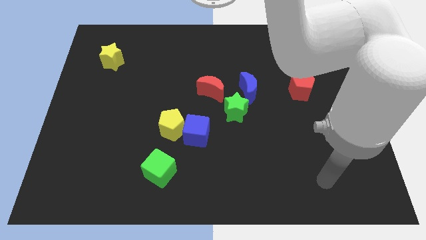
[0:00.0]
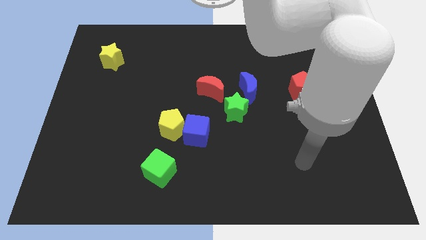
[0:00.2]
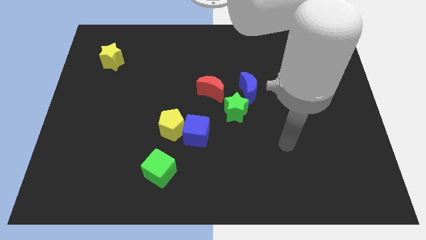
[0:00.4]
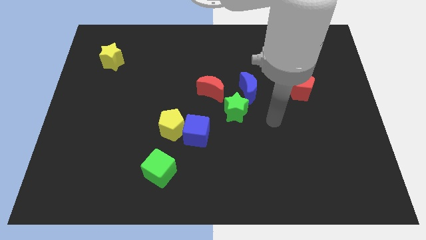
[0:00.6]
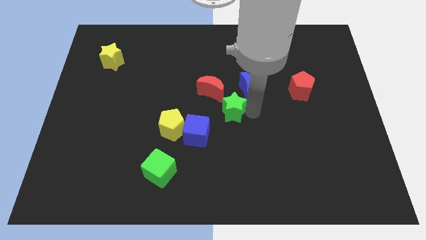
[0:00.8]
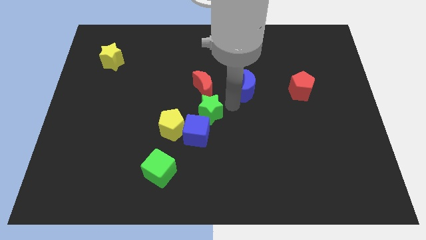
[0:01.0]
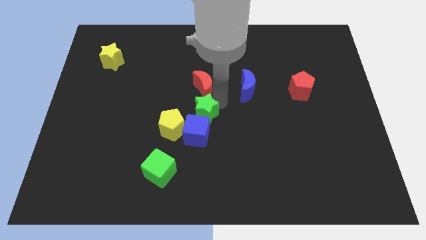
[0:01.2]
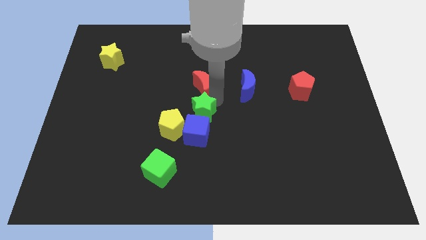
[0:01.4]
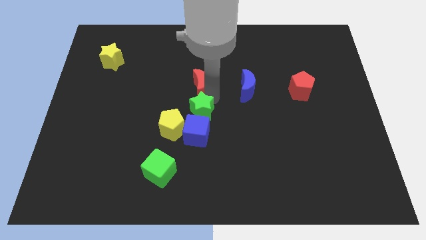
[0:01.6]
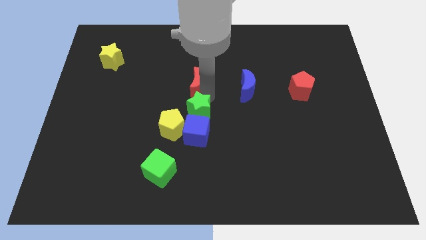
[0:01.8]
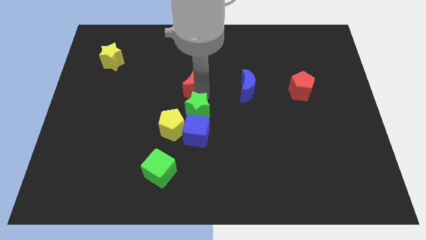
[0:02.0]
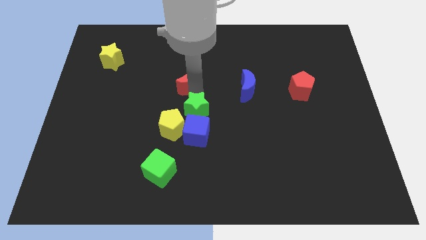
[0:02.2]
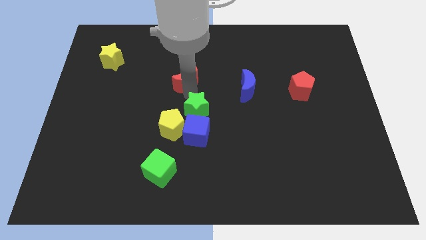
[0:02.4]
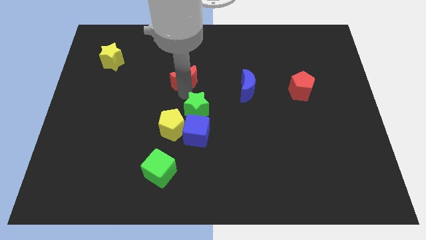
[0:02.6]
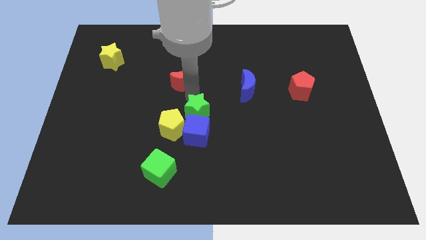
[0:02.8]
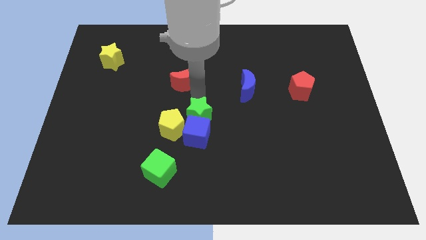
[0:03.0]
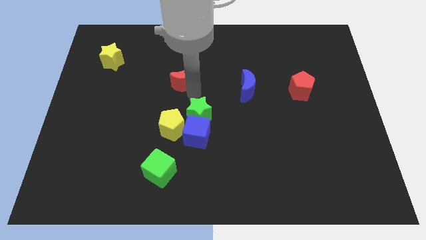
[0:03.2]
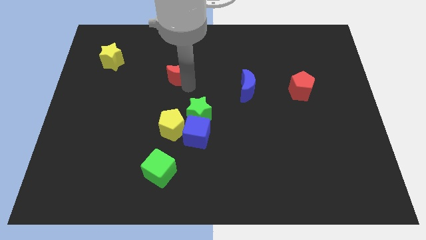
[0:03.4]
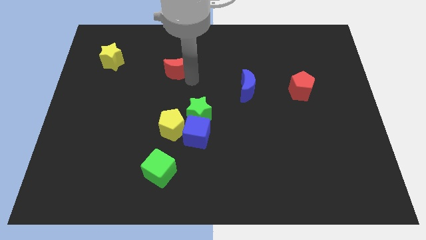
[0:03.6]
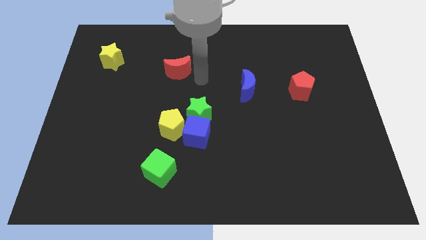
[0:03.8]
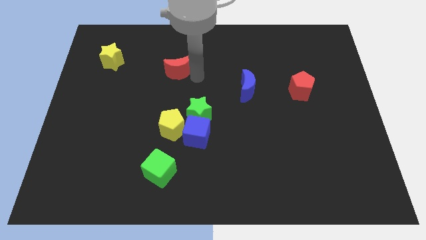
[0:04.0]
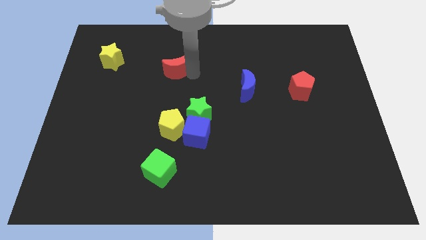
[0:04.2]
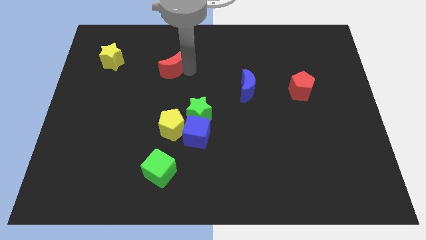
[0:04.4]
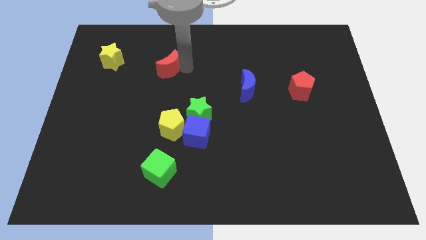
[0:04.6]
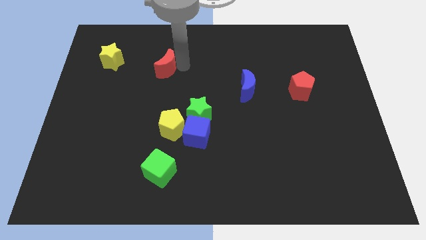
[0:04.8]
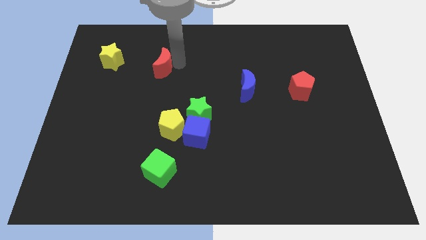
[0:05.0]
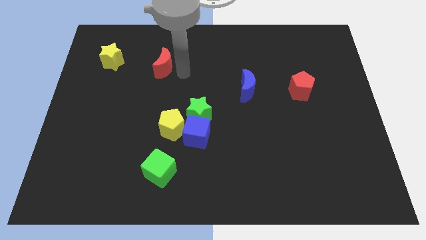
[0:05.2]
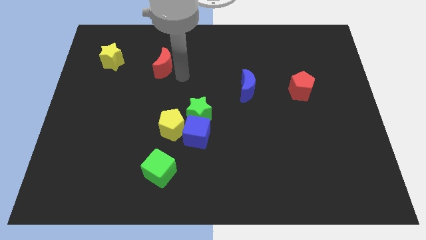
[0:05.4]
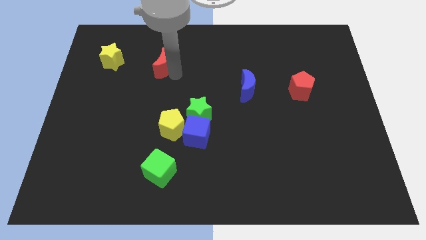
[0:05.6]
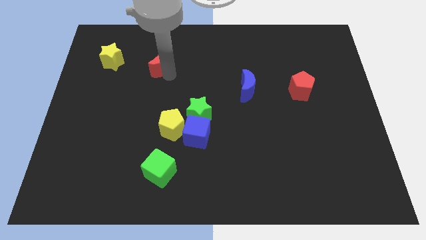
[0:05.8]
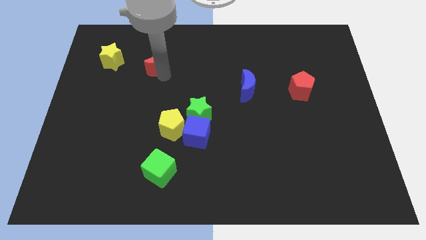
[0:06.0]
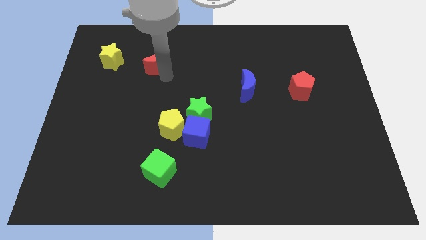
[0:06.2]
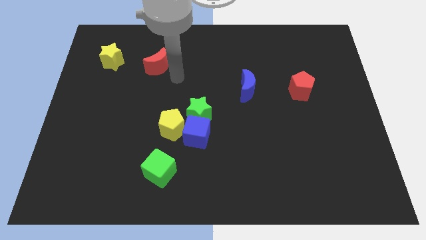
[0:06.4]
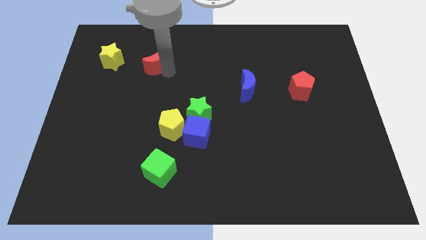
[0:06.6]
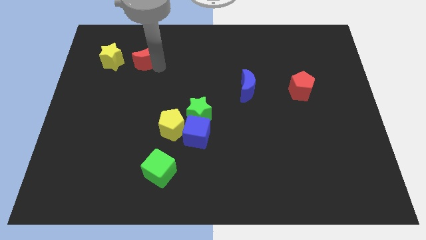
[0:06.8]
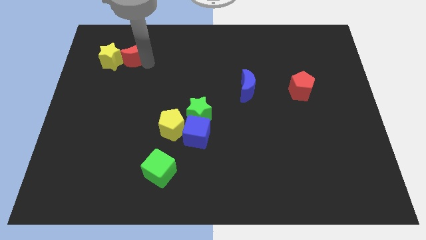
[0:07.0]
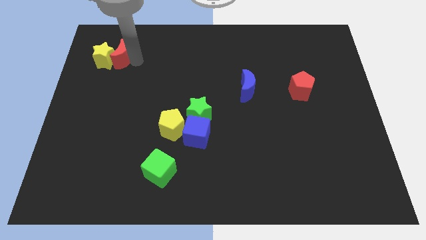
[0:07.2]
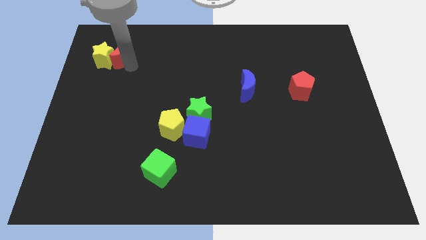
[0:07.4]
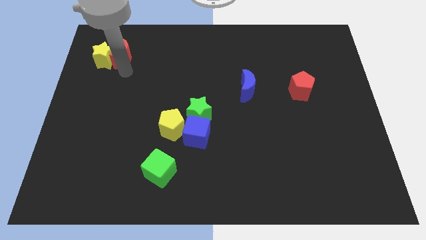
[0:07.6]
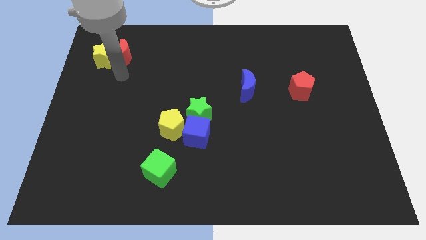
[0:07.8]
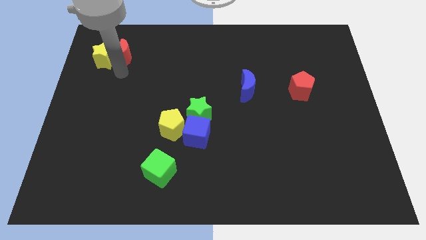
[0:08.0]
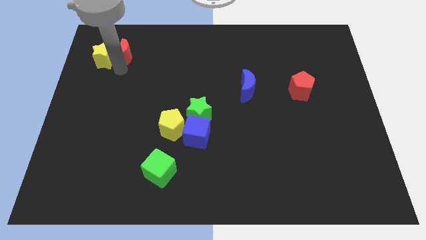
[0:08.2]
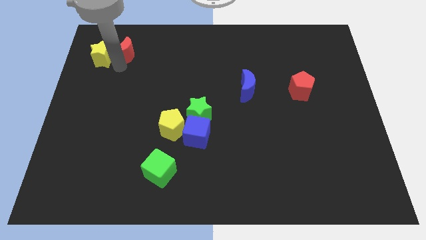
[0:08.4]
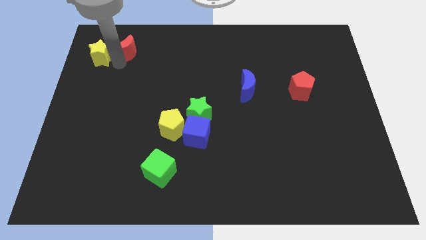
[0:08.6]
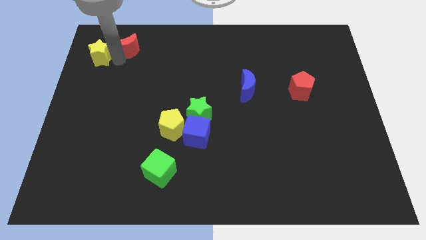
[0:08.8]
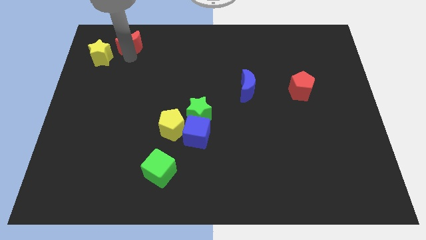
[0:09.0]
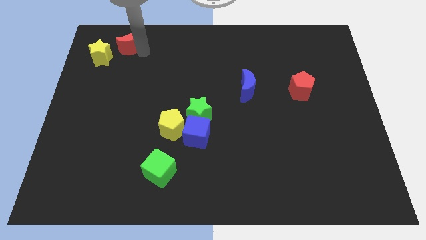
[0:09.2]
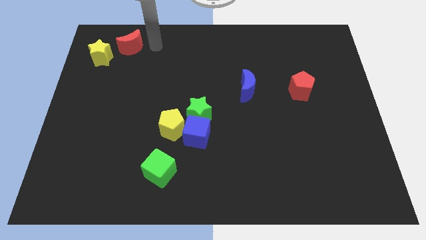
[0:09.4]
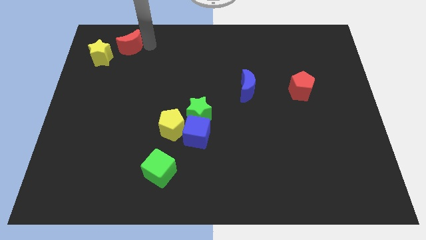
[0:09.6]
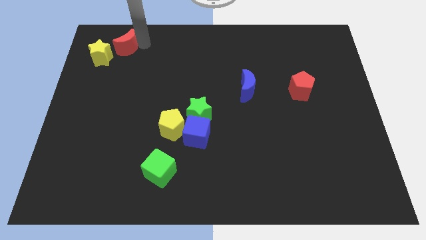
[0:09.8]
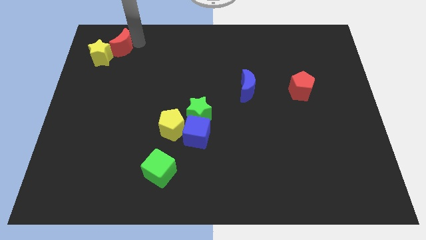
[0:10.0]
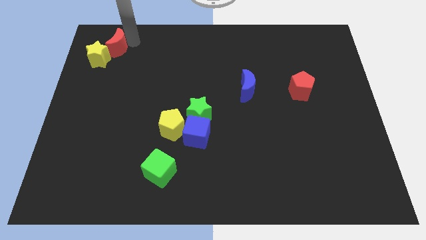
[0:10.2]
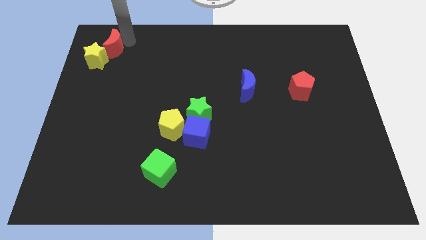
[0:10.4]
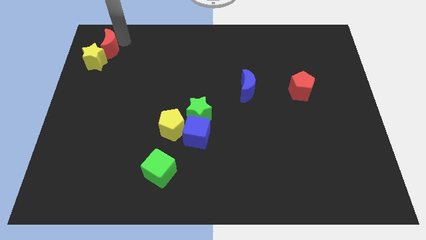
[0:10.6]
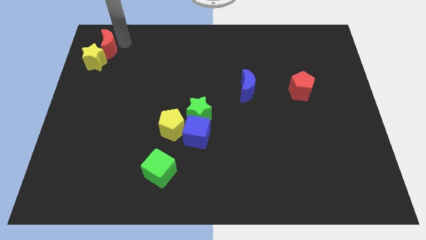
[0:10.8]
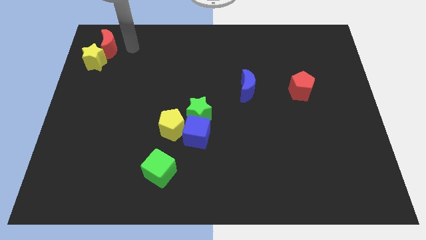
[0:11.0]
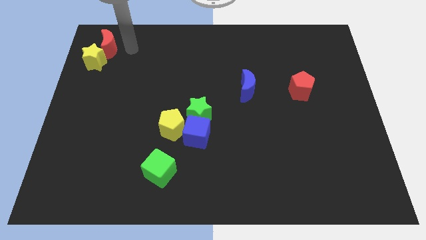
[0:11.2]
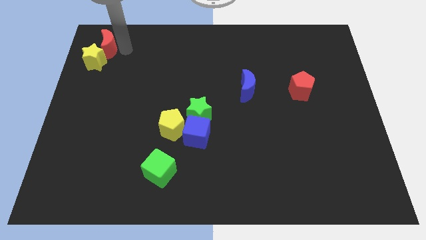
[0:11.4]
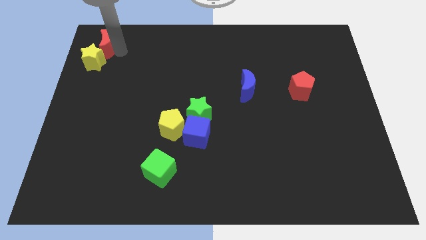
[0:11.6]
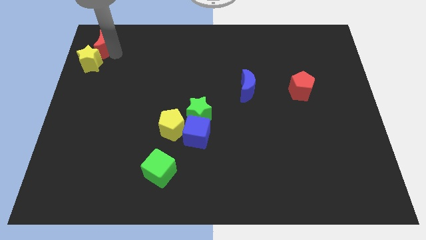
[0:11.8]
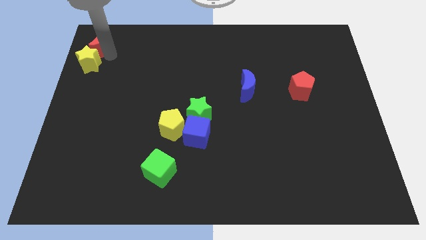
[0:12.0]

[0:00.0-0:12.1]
put the red moon to the top left corner
